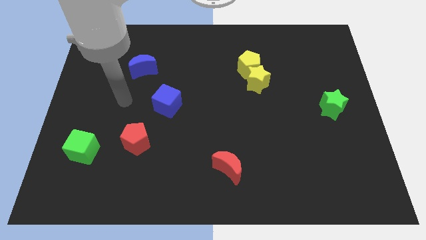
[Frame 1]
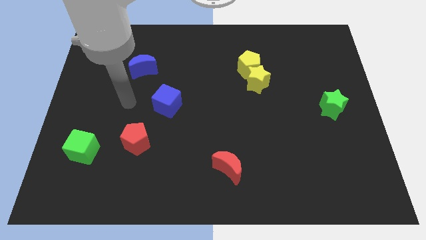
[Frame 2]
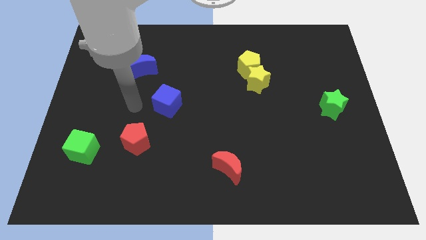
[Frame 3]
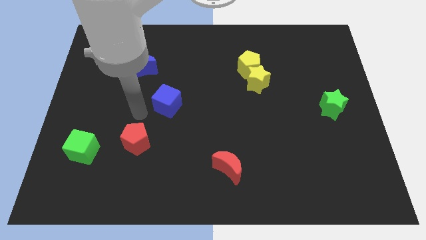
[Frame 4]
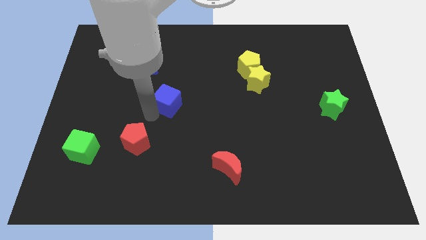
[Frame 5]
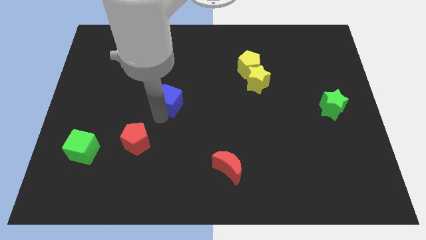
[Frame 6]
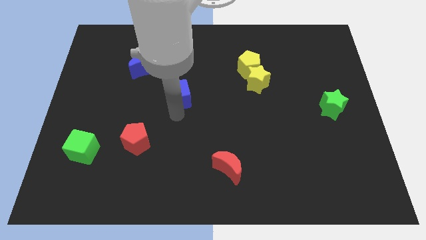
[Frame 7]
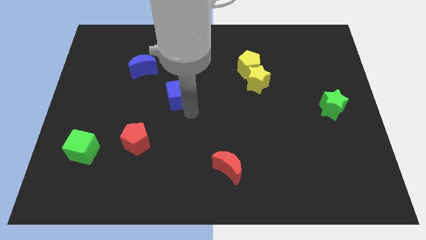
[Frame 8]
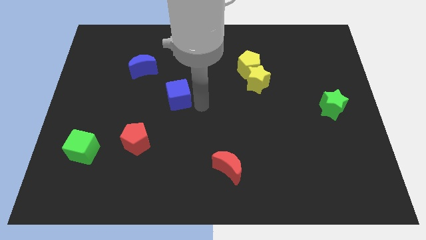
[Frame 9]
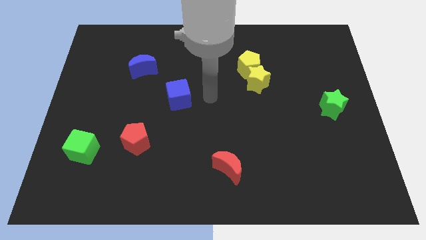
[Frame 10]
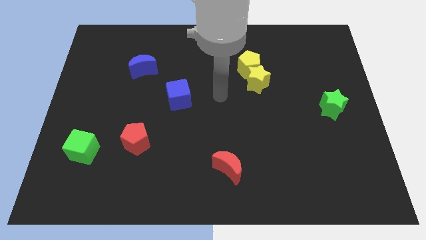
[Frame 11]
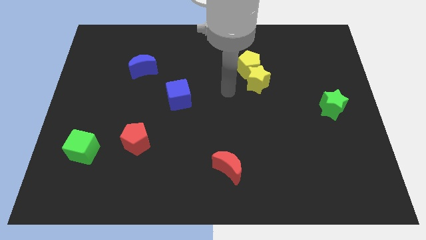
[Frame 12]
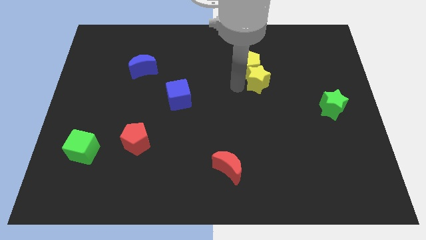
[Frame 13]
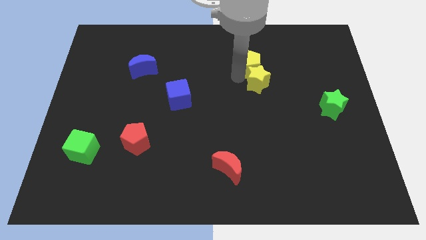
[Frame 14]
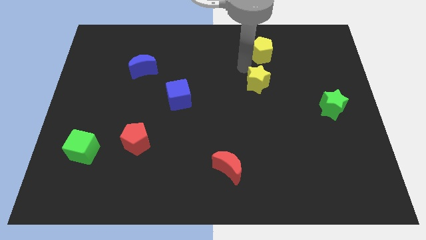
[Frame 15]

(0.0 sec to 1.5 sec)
pull the yellow star apart from the yellow pentagon

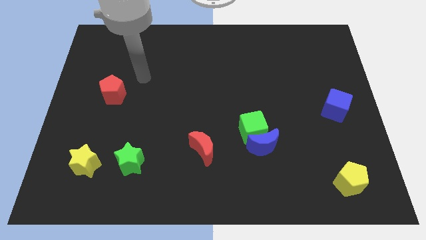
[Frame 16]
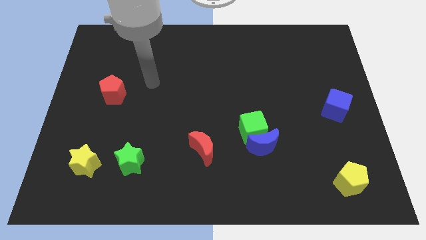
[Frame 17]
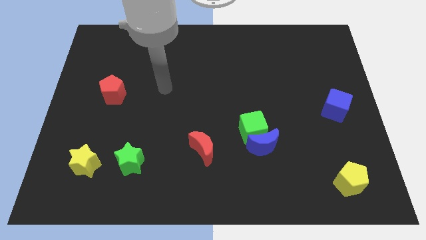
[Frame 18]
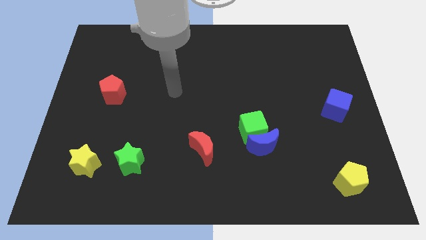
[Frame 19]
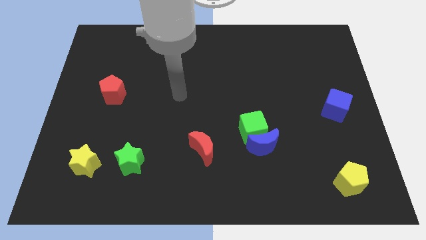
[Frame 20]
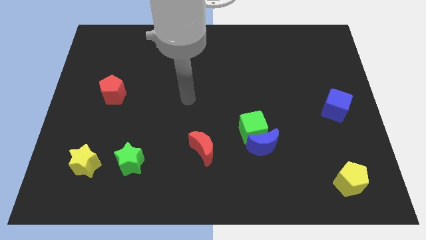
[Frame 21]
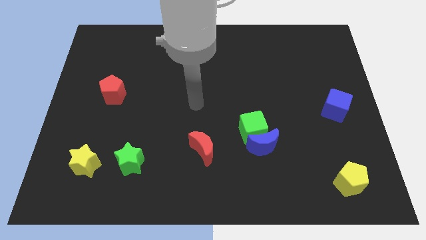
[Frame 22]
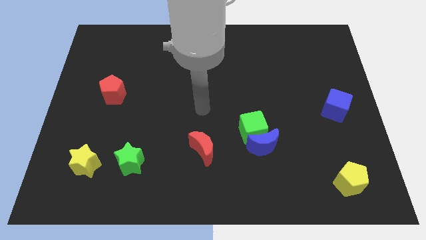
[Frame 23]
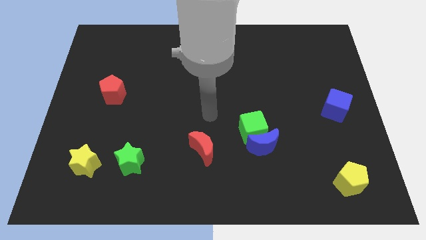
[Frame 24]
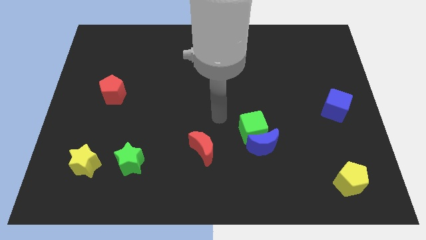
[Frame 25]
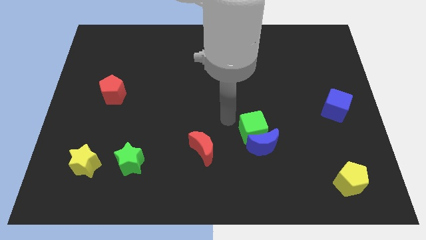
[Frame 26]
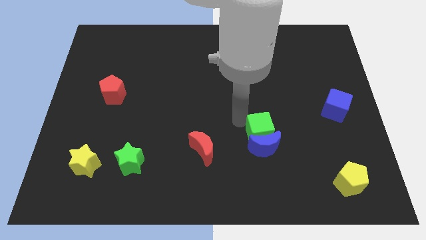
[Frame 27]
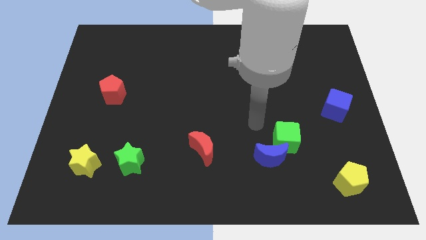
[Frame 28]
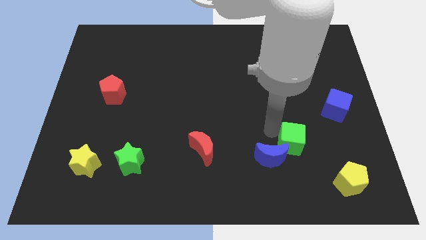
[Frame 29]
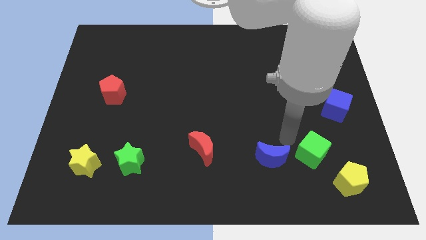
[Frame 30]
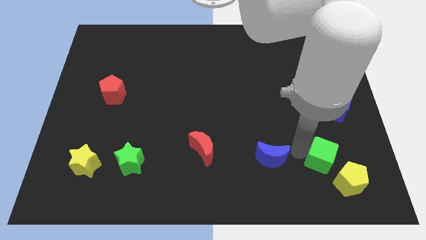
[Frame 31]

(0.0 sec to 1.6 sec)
move the blue moon away from the green cube

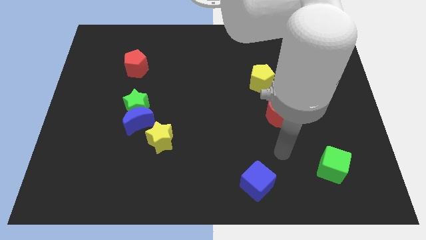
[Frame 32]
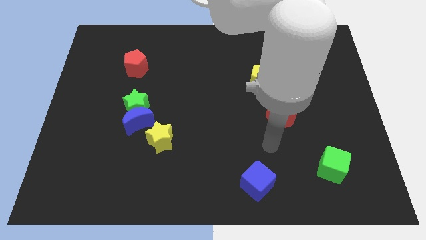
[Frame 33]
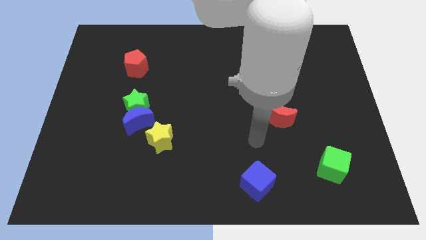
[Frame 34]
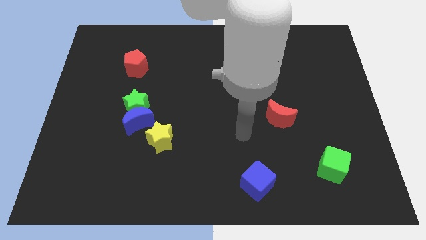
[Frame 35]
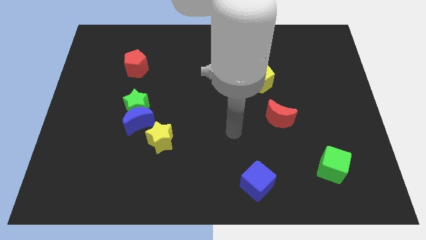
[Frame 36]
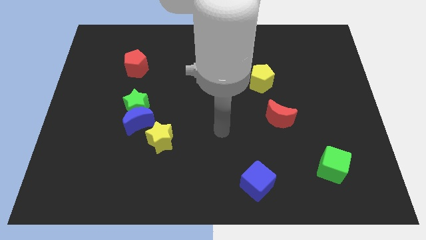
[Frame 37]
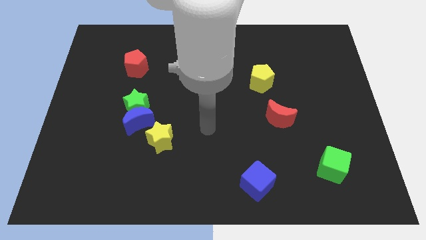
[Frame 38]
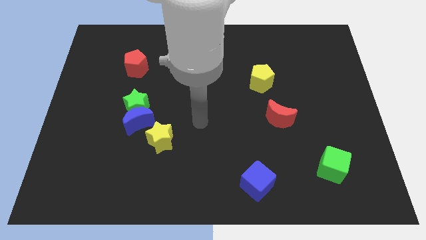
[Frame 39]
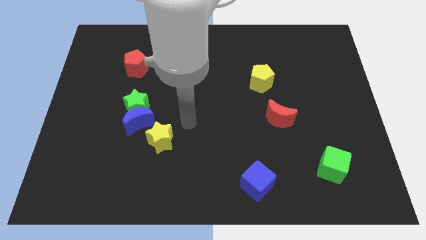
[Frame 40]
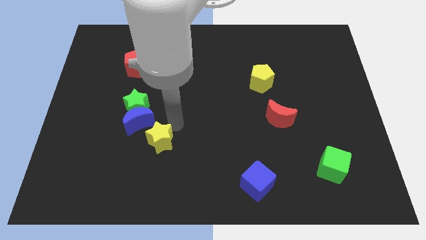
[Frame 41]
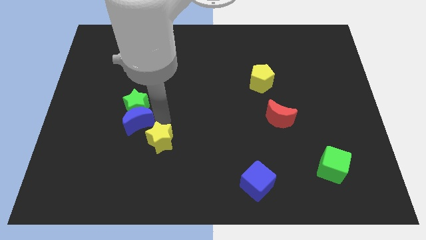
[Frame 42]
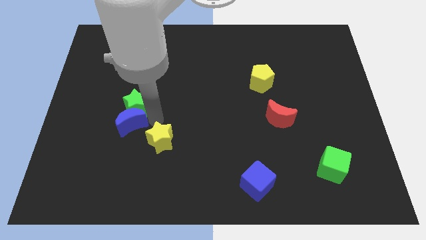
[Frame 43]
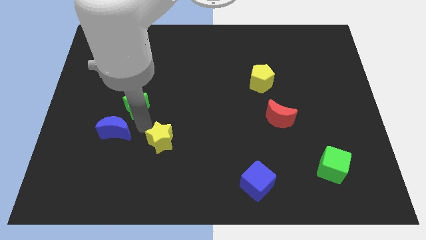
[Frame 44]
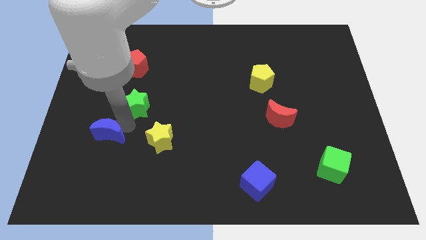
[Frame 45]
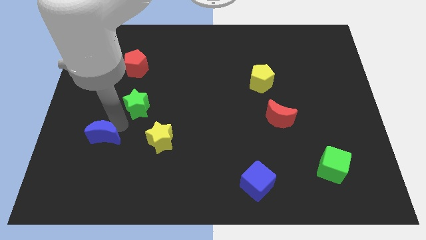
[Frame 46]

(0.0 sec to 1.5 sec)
pull the green star apart from the blue moon

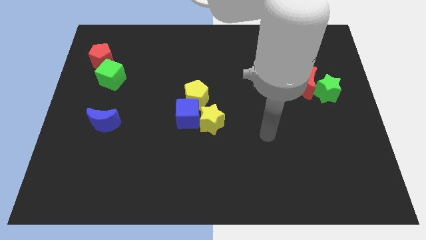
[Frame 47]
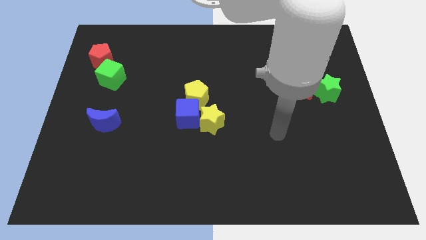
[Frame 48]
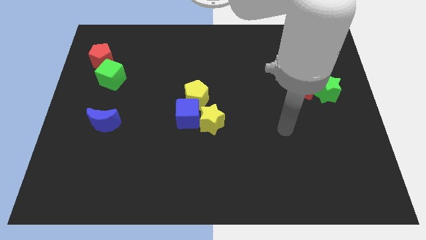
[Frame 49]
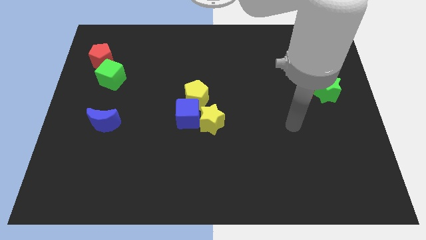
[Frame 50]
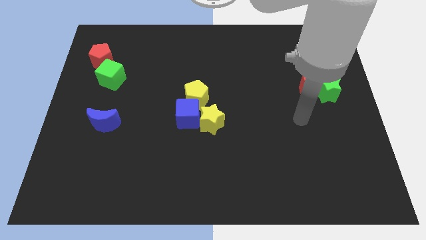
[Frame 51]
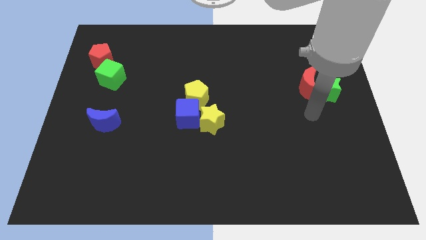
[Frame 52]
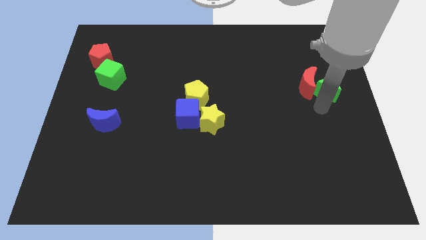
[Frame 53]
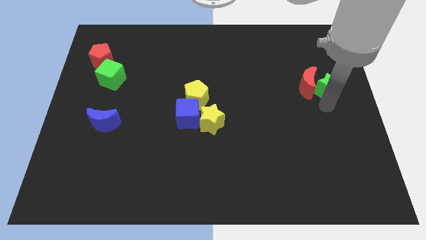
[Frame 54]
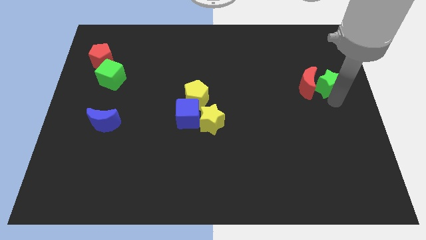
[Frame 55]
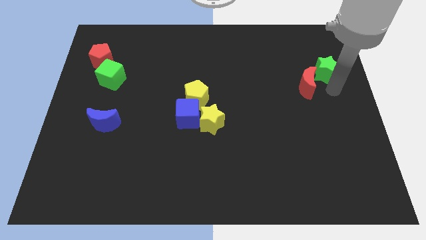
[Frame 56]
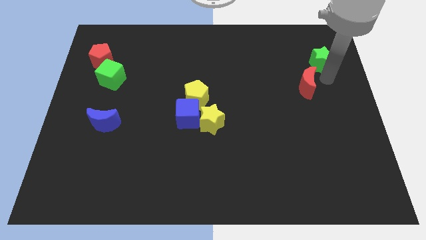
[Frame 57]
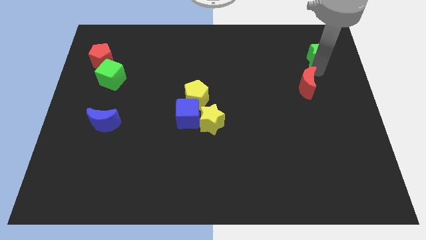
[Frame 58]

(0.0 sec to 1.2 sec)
move the red moon away from the green star

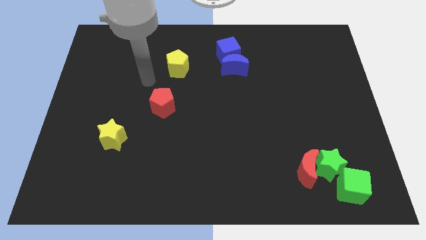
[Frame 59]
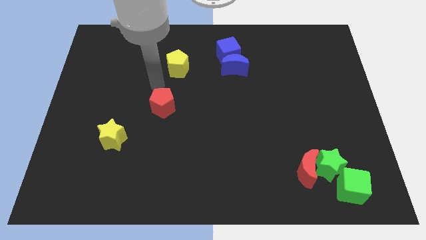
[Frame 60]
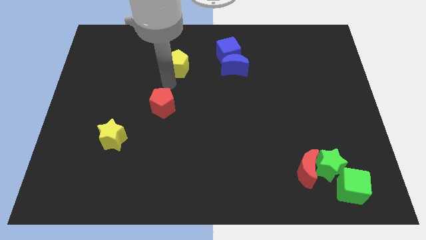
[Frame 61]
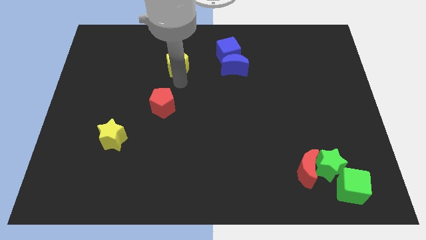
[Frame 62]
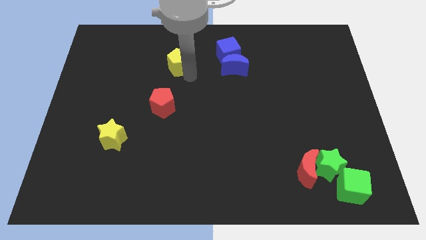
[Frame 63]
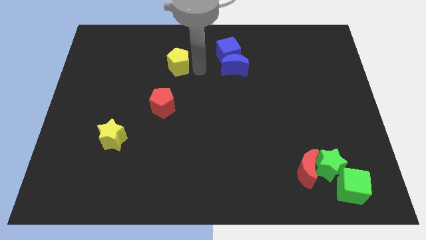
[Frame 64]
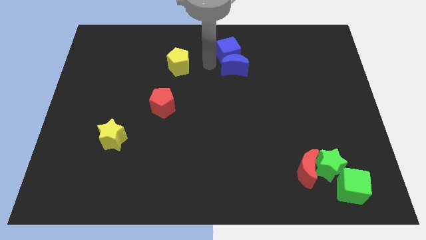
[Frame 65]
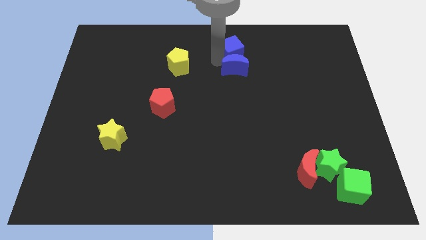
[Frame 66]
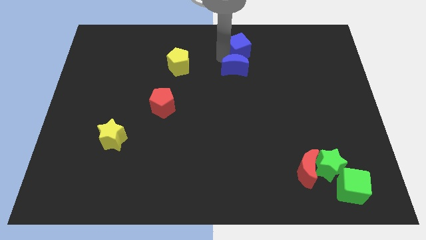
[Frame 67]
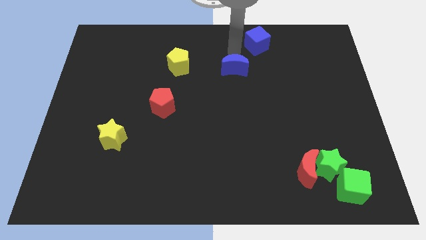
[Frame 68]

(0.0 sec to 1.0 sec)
pull the blue moon apart from the blue cube

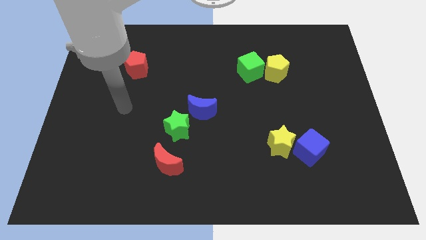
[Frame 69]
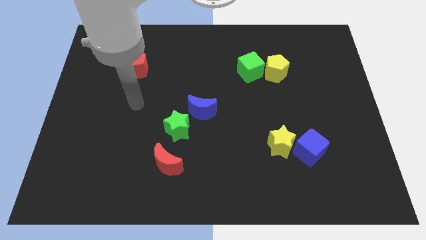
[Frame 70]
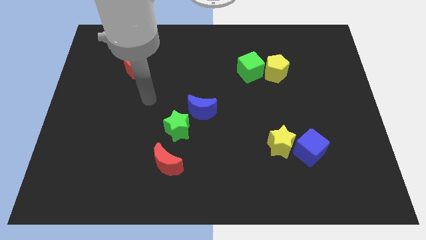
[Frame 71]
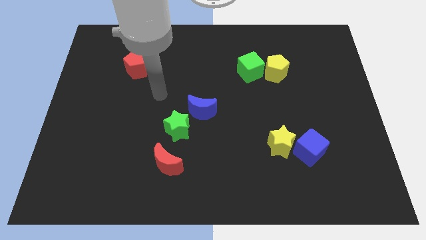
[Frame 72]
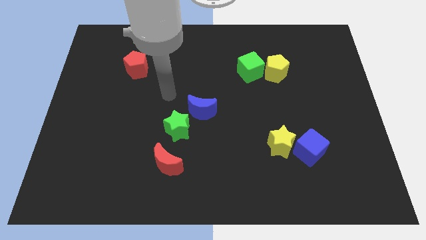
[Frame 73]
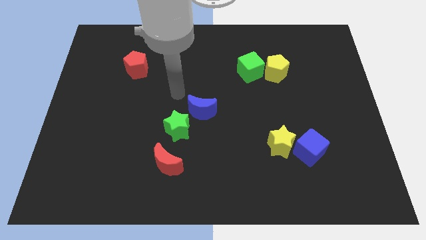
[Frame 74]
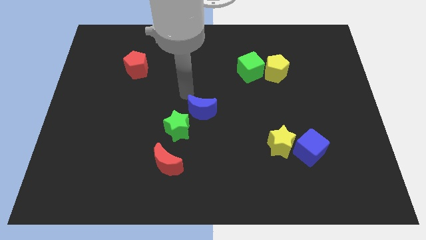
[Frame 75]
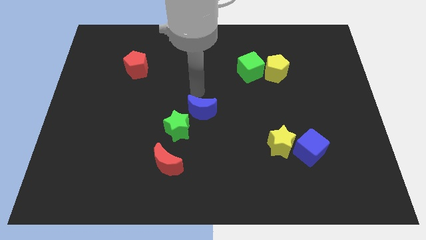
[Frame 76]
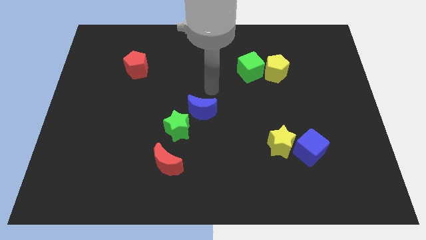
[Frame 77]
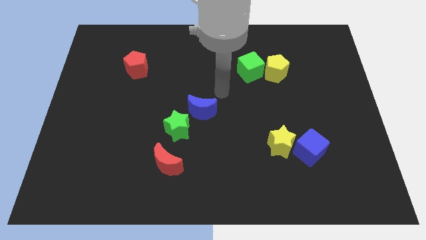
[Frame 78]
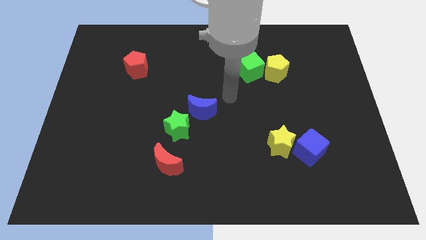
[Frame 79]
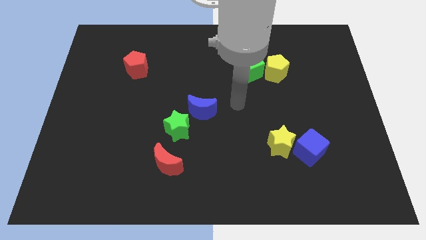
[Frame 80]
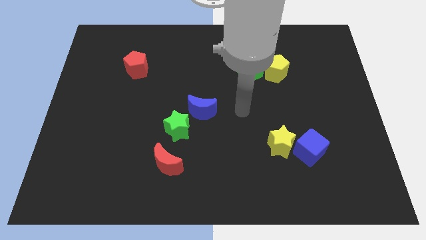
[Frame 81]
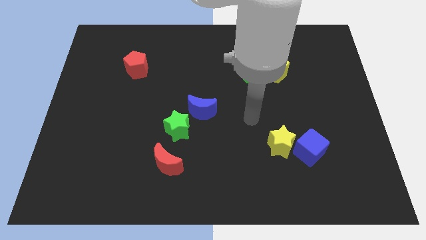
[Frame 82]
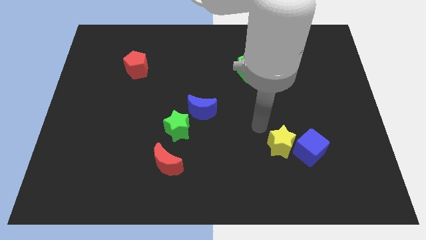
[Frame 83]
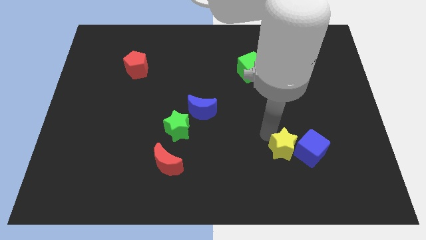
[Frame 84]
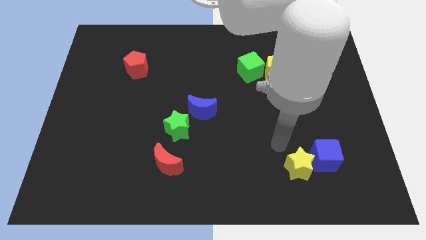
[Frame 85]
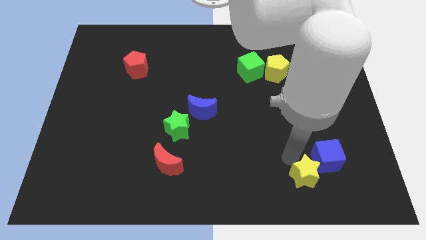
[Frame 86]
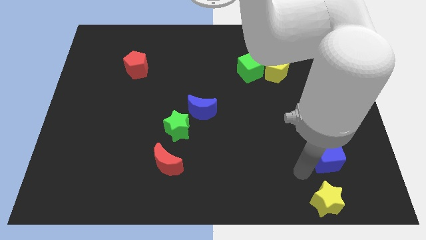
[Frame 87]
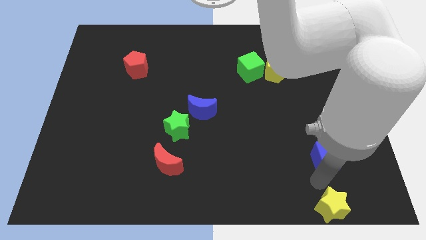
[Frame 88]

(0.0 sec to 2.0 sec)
pull the blue cube apart from the yellow star

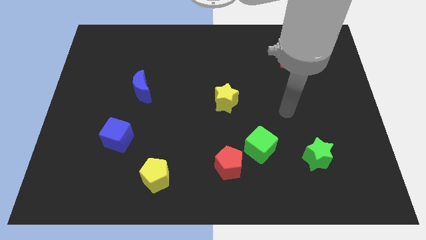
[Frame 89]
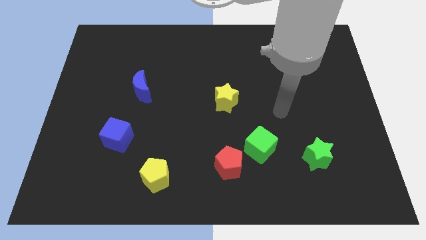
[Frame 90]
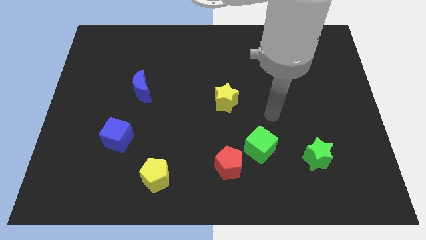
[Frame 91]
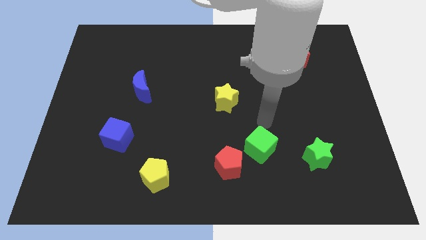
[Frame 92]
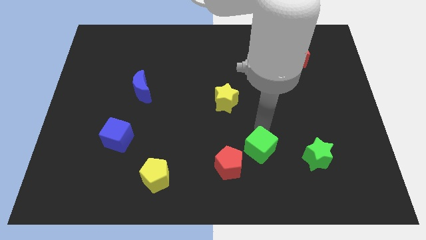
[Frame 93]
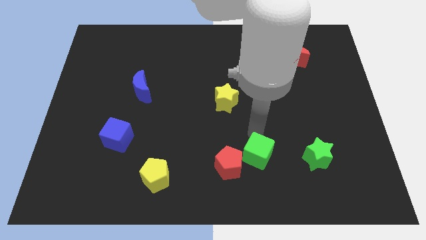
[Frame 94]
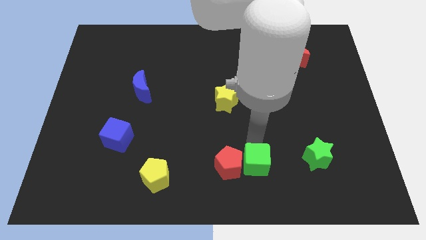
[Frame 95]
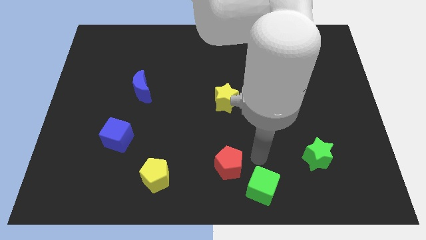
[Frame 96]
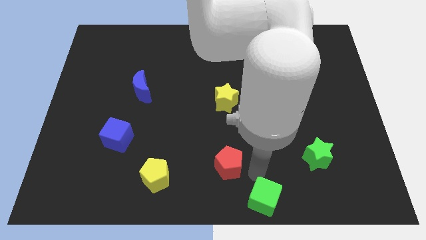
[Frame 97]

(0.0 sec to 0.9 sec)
move the red pentagon away from the green cube
